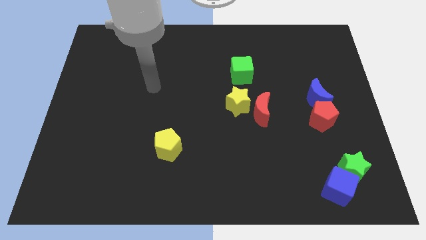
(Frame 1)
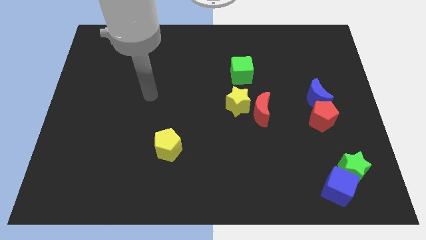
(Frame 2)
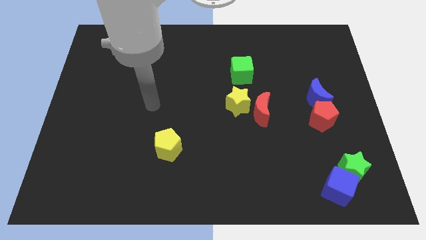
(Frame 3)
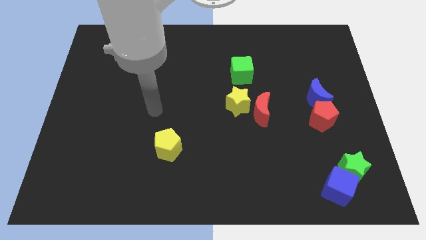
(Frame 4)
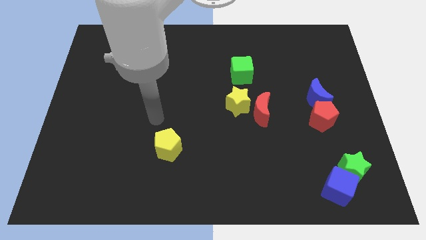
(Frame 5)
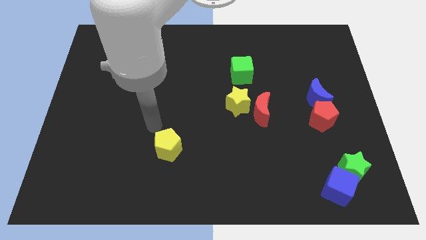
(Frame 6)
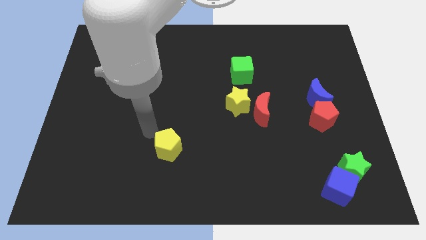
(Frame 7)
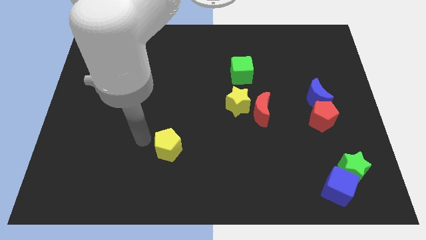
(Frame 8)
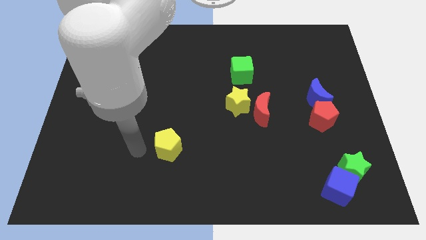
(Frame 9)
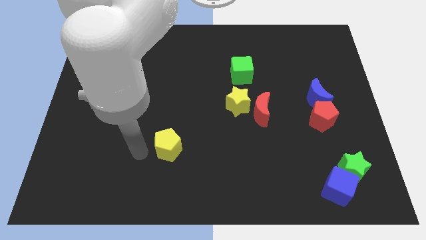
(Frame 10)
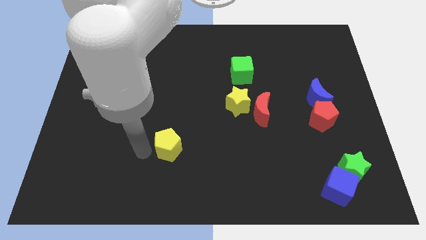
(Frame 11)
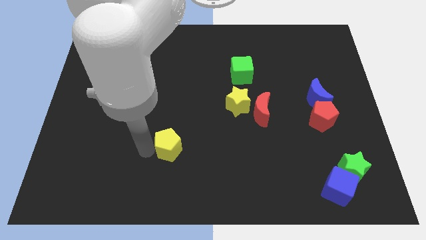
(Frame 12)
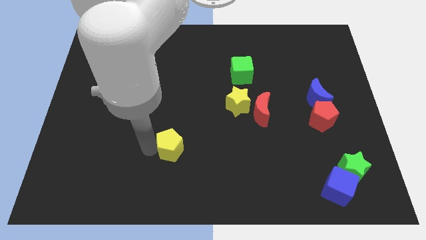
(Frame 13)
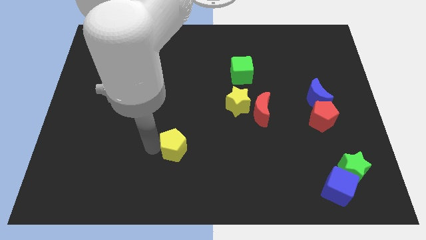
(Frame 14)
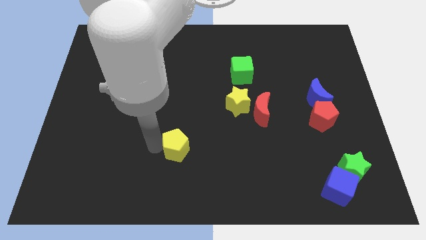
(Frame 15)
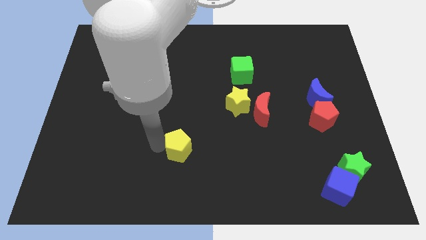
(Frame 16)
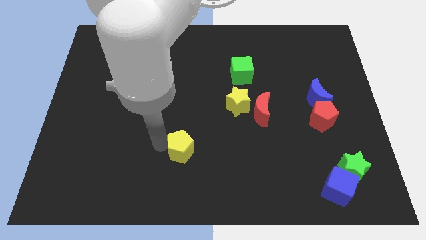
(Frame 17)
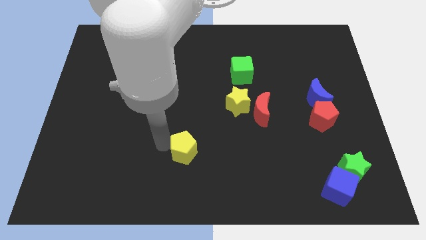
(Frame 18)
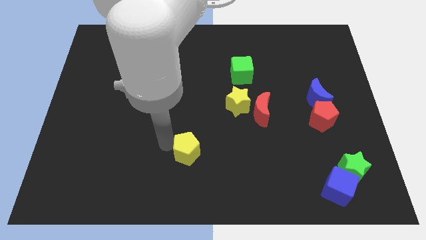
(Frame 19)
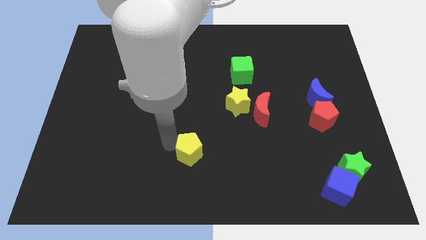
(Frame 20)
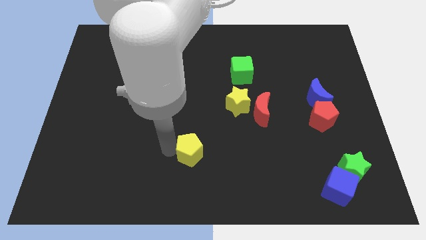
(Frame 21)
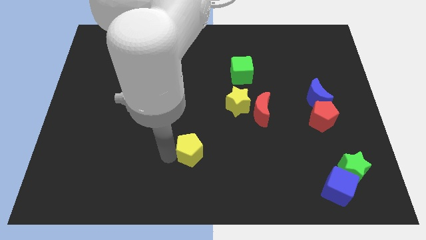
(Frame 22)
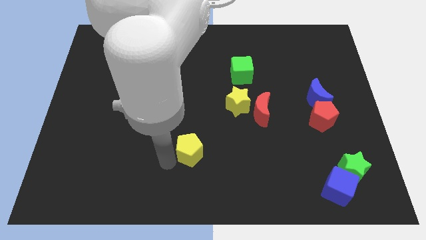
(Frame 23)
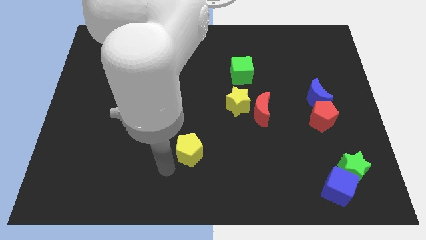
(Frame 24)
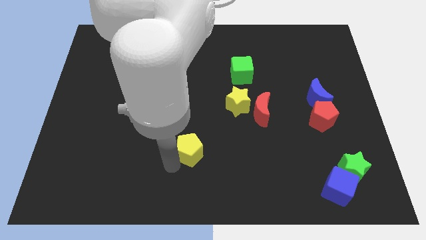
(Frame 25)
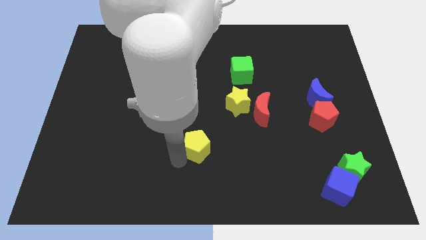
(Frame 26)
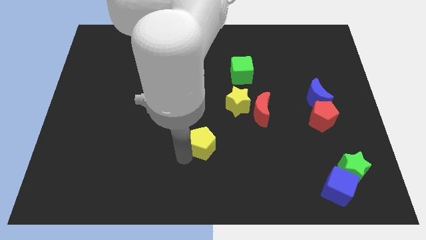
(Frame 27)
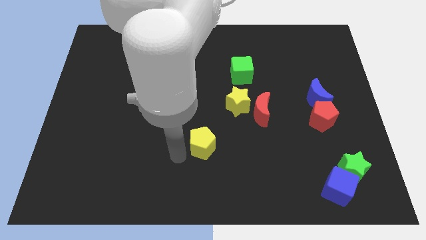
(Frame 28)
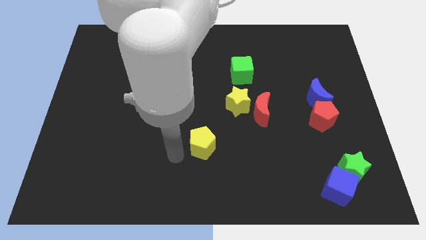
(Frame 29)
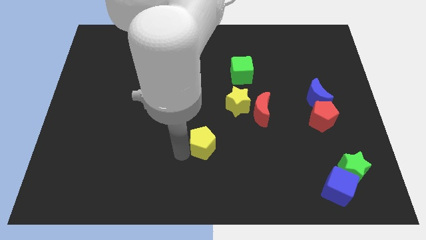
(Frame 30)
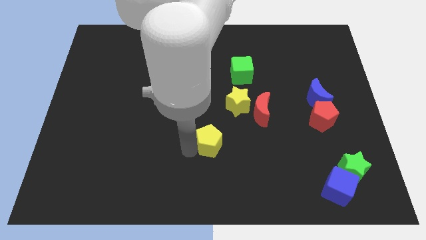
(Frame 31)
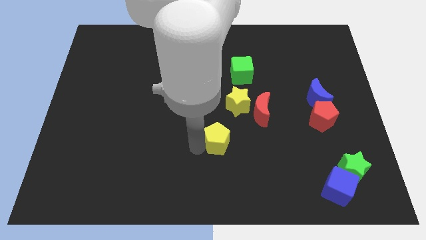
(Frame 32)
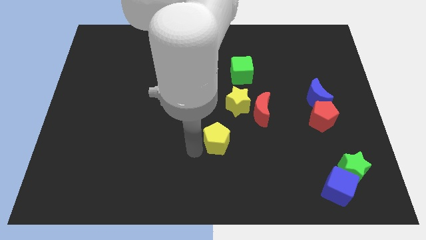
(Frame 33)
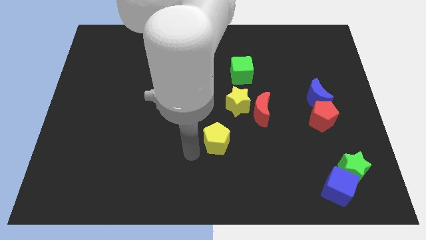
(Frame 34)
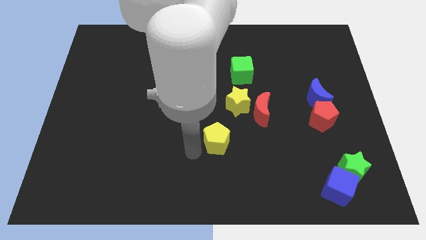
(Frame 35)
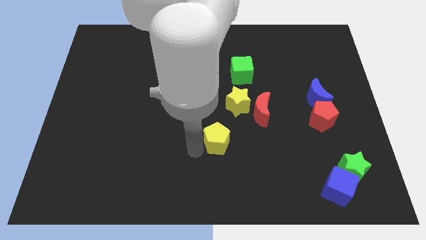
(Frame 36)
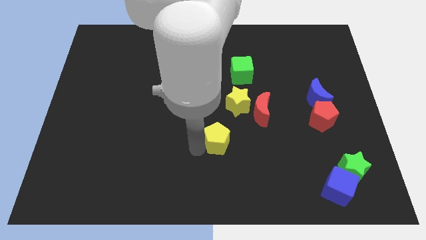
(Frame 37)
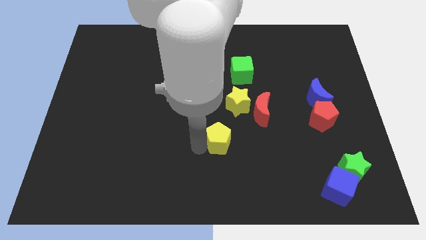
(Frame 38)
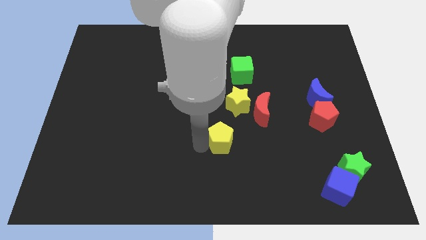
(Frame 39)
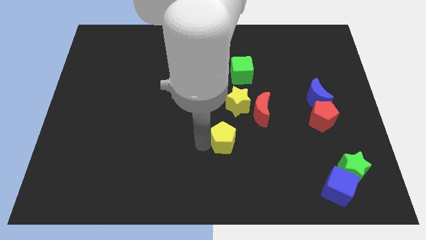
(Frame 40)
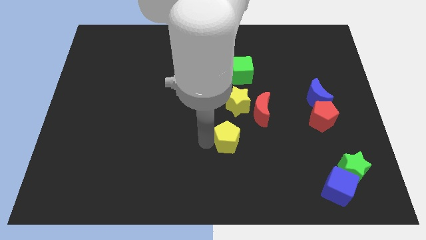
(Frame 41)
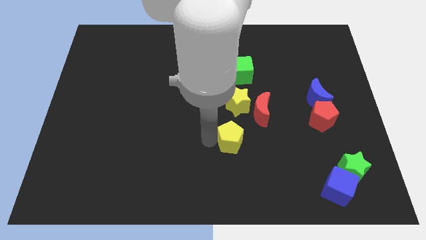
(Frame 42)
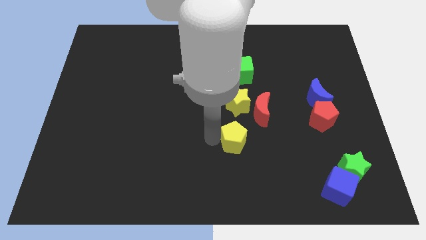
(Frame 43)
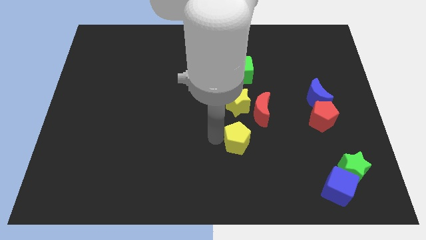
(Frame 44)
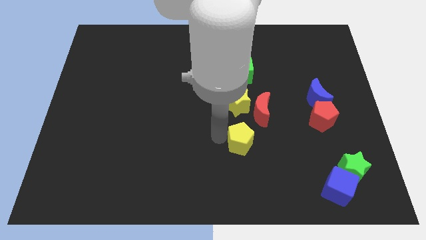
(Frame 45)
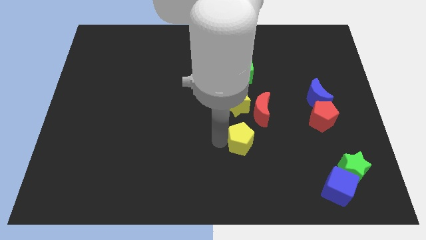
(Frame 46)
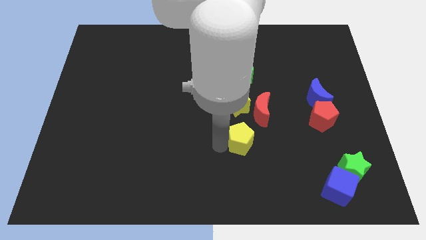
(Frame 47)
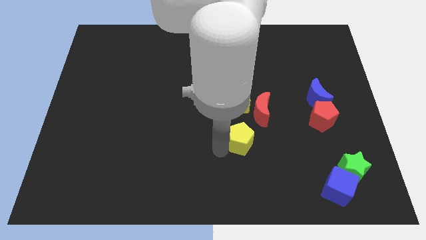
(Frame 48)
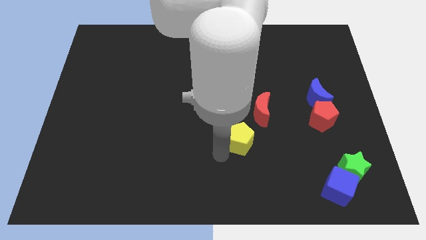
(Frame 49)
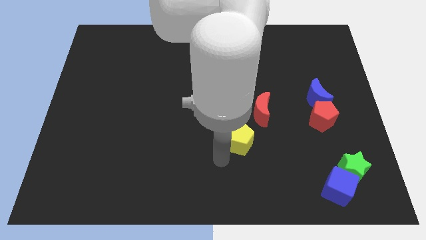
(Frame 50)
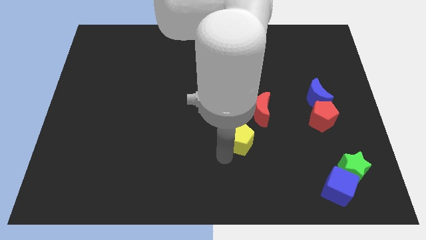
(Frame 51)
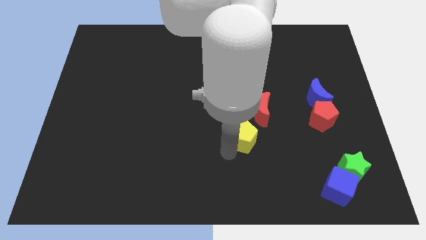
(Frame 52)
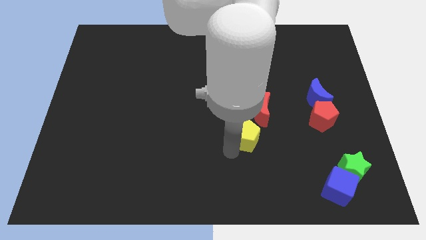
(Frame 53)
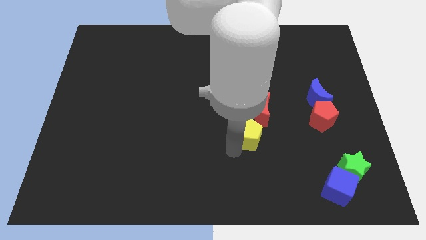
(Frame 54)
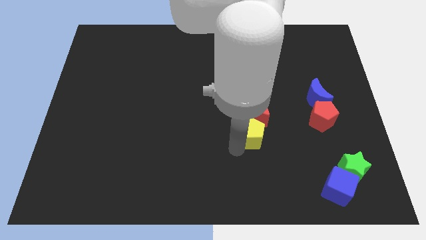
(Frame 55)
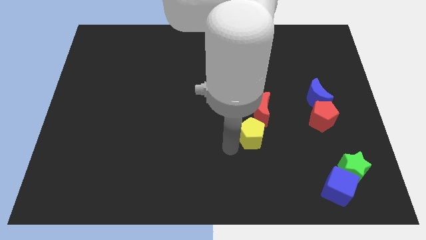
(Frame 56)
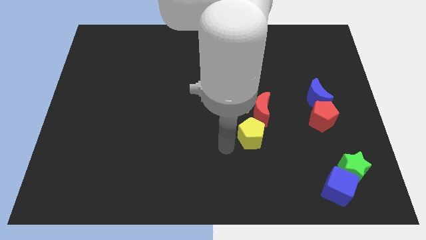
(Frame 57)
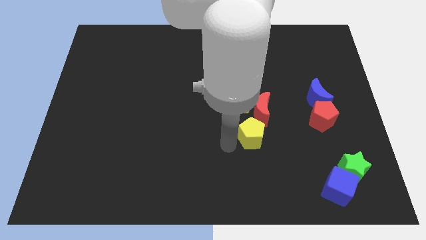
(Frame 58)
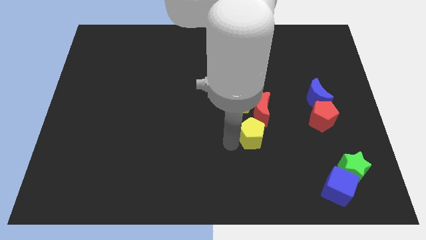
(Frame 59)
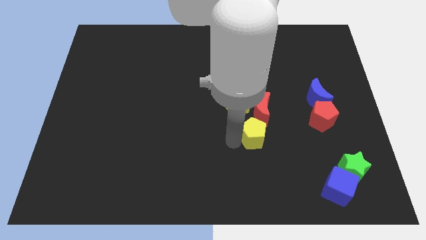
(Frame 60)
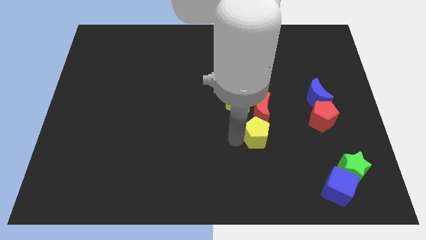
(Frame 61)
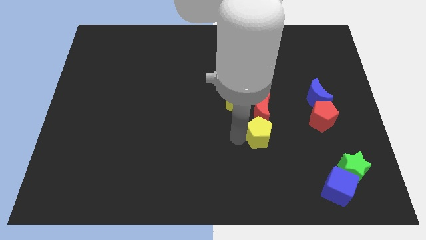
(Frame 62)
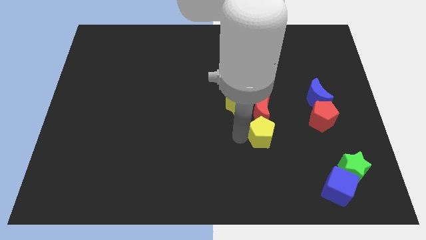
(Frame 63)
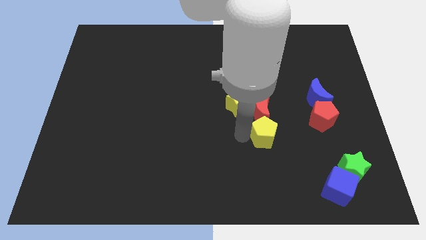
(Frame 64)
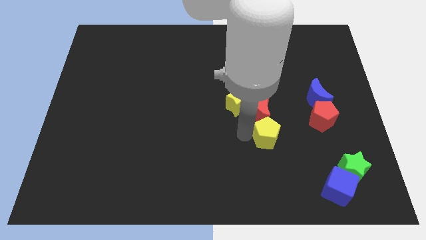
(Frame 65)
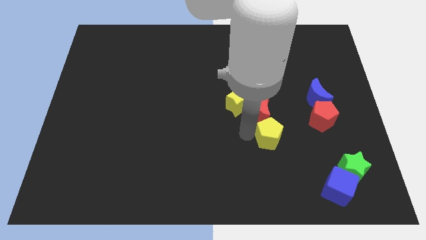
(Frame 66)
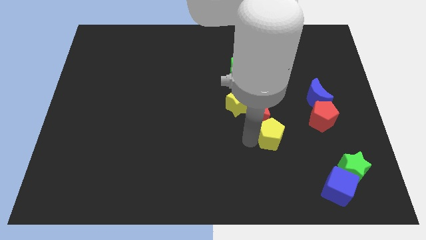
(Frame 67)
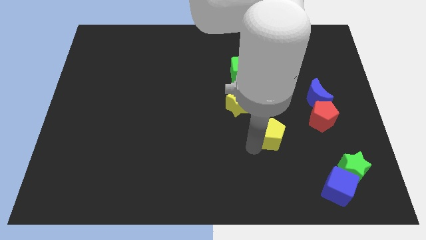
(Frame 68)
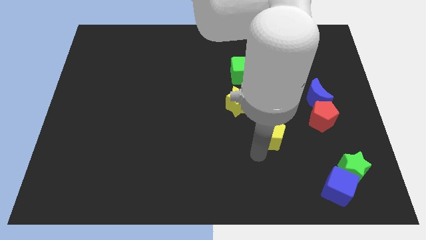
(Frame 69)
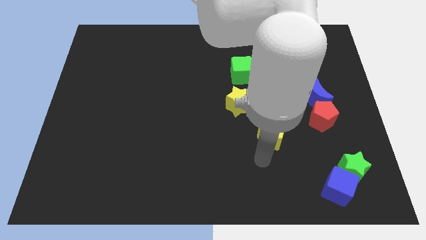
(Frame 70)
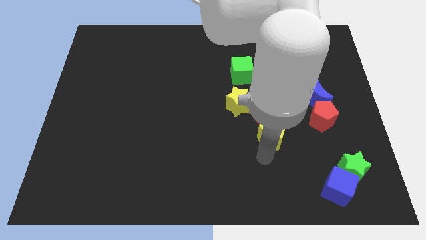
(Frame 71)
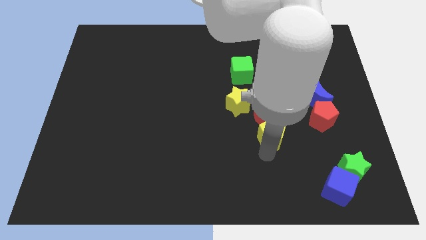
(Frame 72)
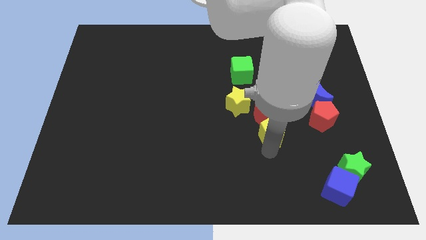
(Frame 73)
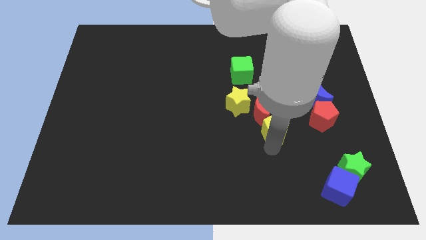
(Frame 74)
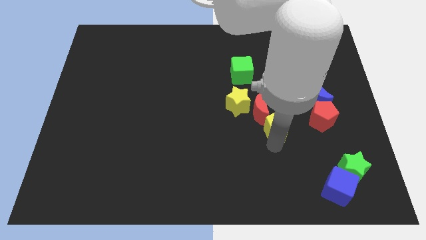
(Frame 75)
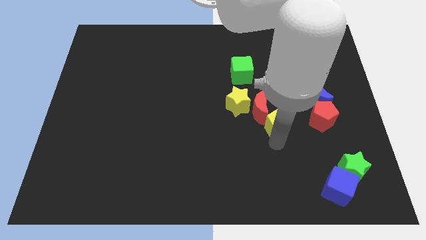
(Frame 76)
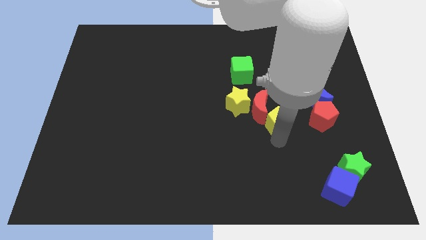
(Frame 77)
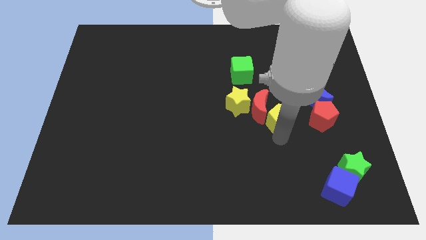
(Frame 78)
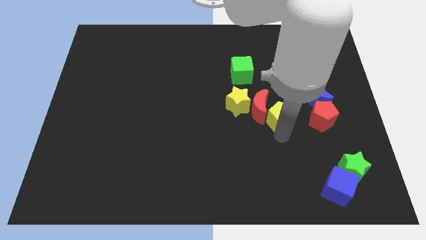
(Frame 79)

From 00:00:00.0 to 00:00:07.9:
move the yellow pentagon just right of the yellow star
